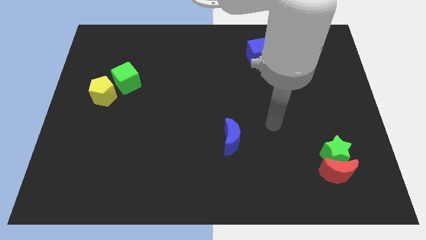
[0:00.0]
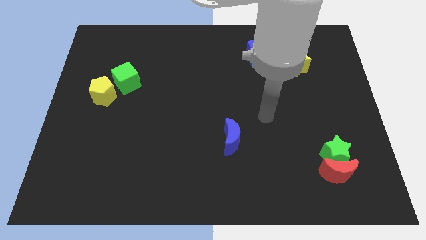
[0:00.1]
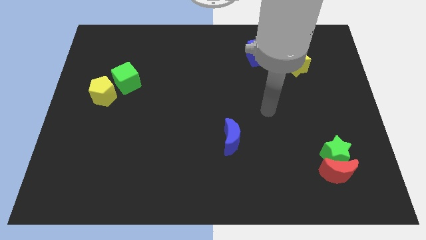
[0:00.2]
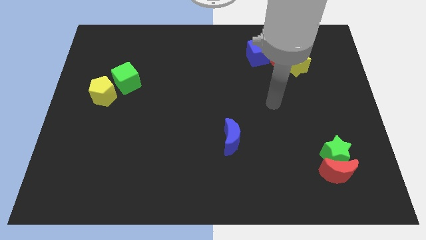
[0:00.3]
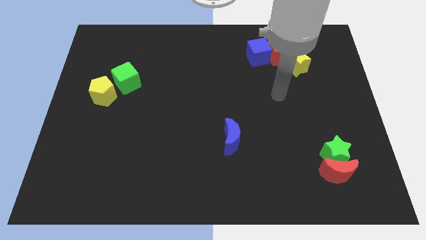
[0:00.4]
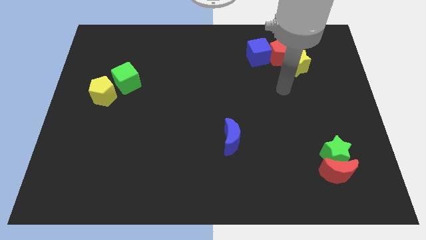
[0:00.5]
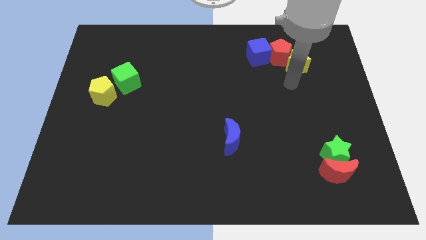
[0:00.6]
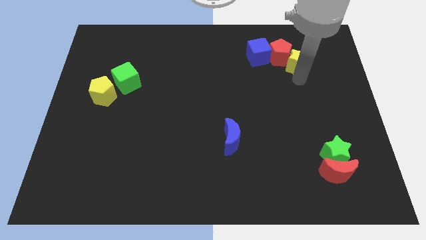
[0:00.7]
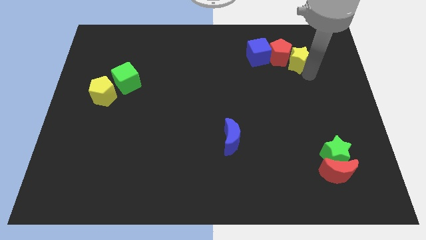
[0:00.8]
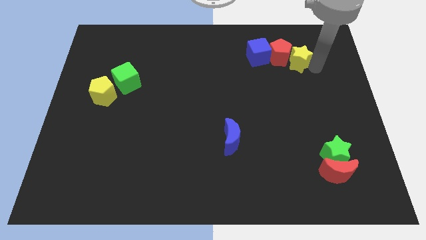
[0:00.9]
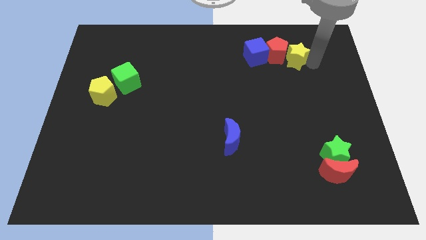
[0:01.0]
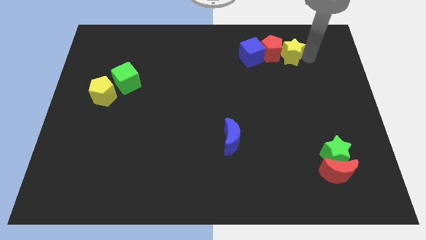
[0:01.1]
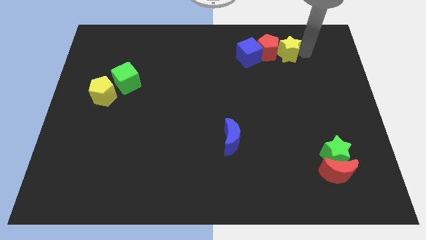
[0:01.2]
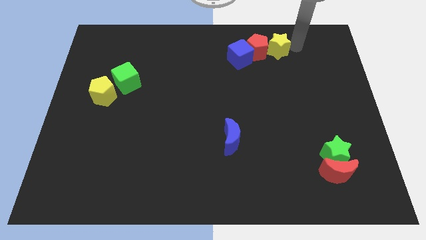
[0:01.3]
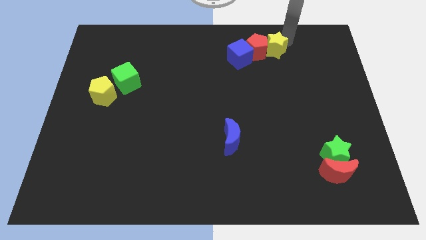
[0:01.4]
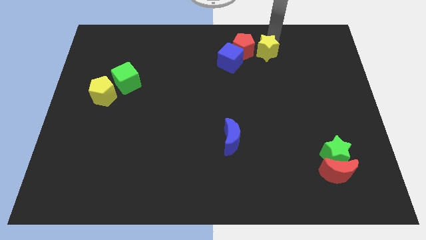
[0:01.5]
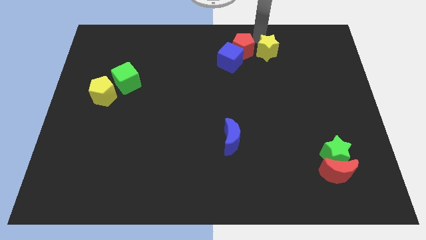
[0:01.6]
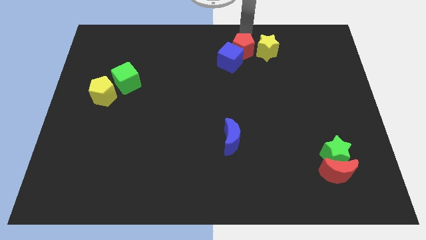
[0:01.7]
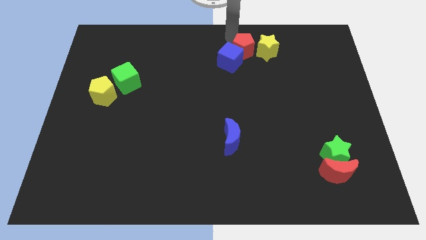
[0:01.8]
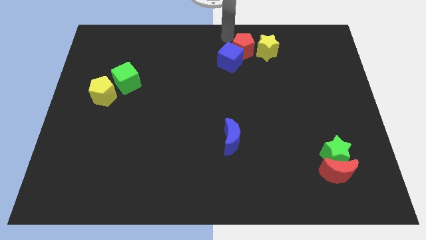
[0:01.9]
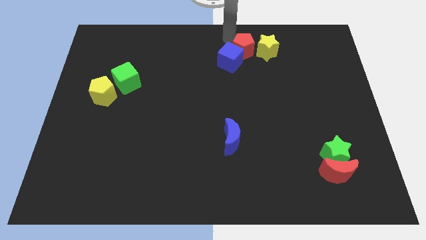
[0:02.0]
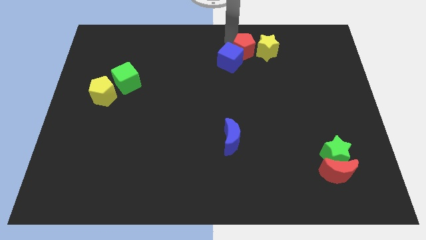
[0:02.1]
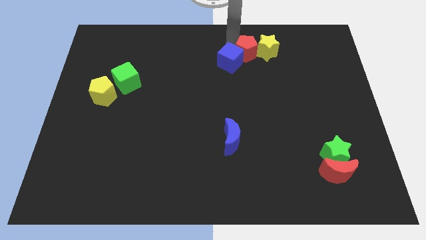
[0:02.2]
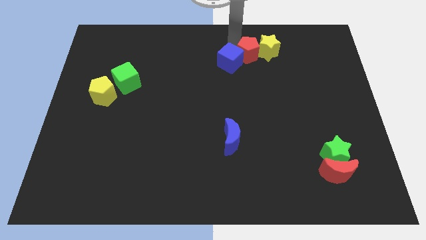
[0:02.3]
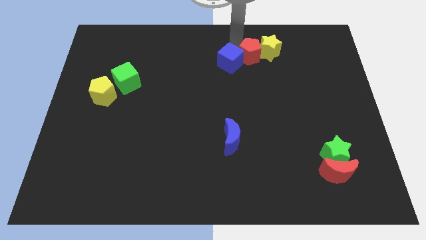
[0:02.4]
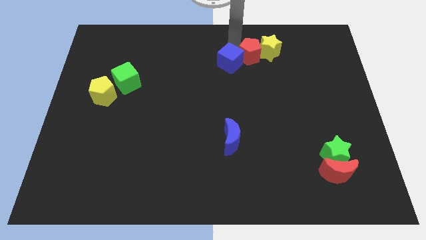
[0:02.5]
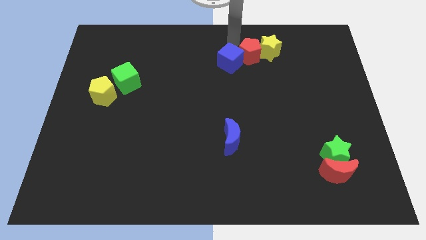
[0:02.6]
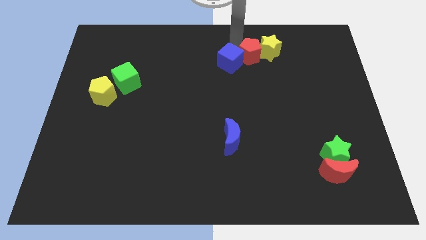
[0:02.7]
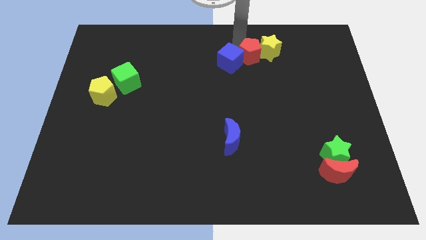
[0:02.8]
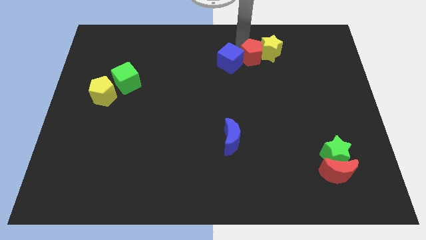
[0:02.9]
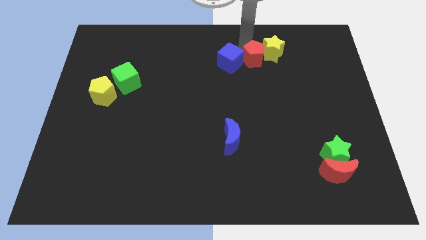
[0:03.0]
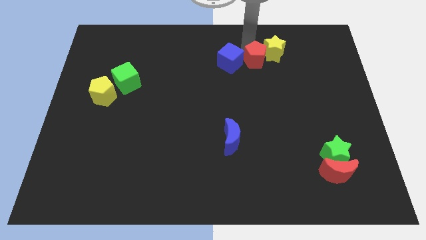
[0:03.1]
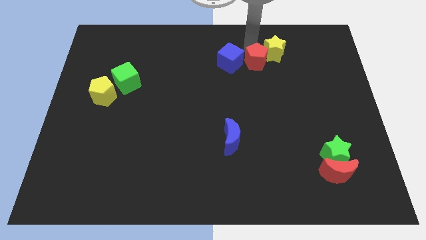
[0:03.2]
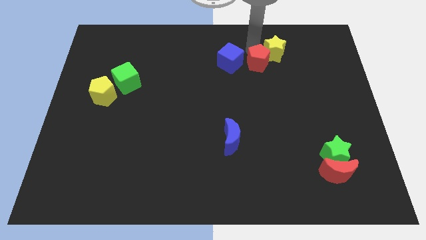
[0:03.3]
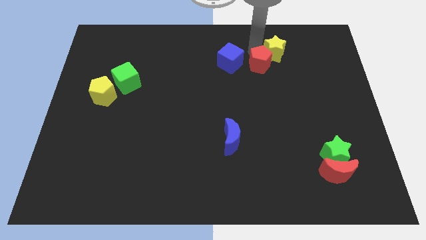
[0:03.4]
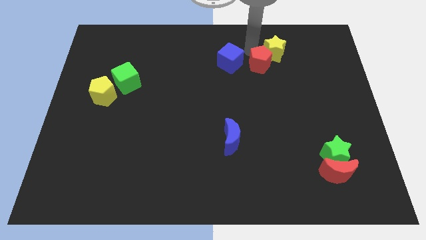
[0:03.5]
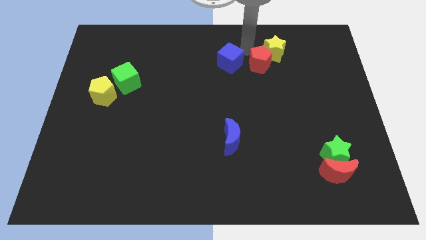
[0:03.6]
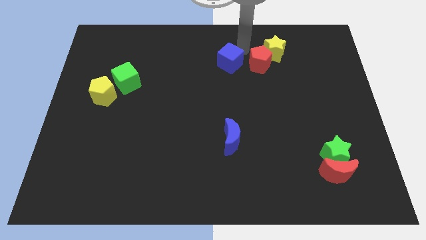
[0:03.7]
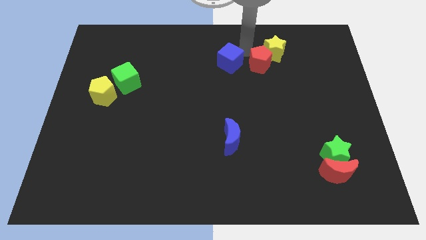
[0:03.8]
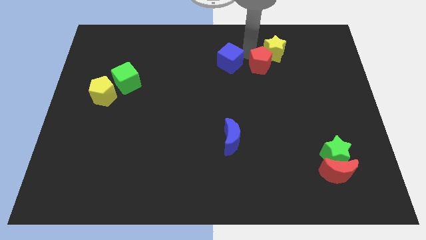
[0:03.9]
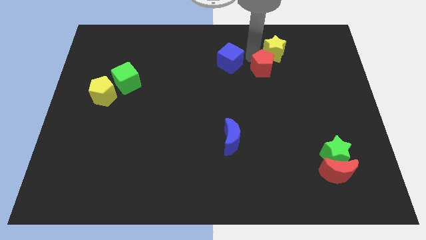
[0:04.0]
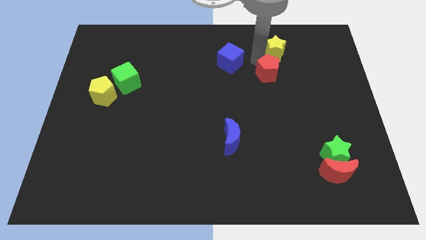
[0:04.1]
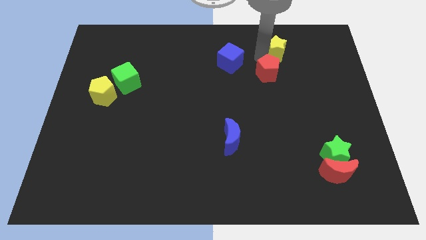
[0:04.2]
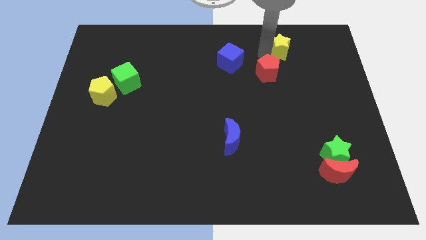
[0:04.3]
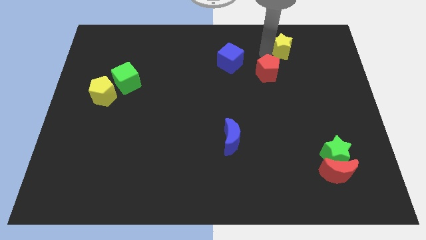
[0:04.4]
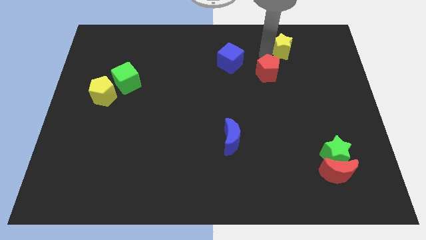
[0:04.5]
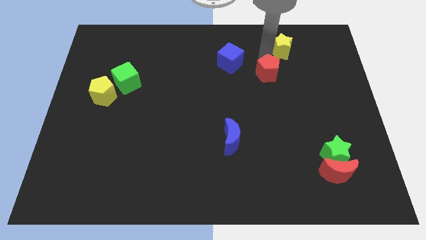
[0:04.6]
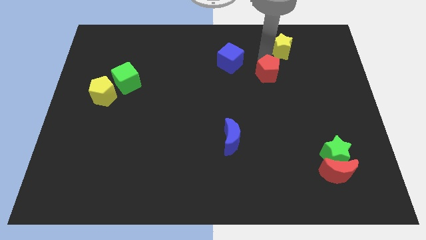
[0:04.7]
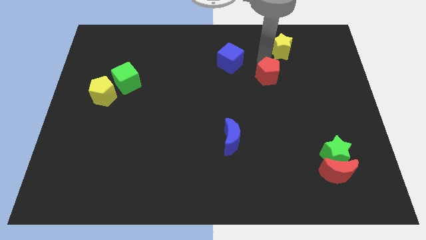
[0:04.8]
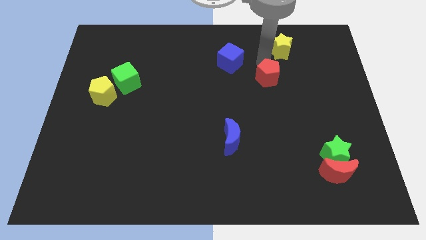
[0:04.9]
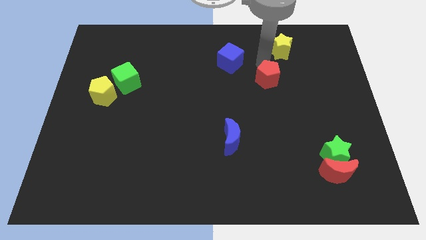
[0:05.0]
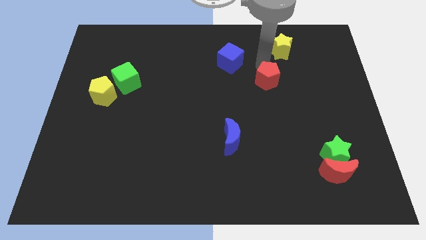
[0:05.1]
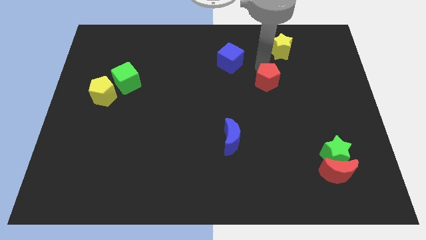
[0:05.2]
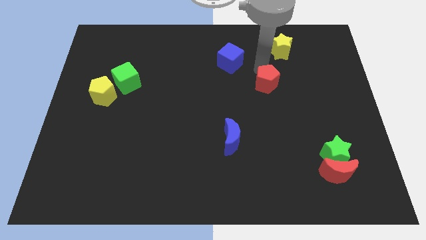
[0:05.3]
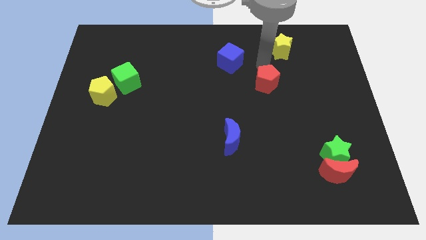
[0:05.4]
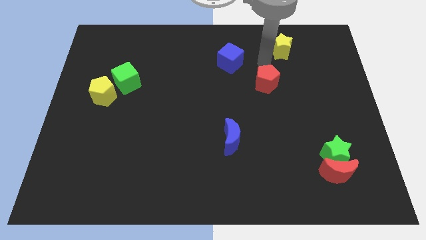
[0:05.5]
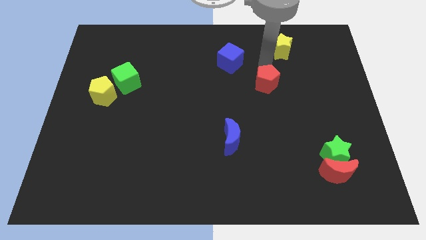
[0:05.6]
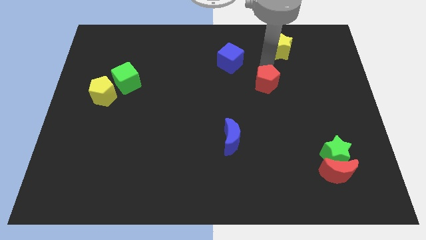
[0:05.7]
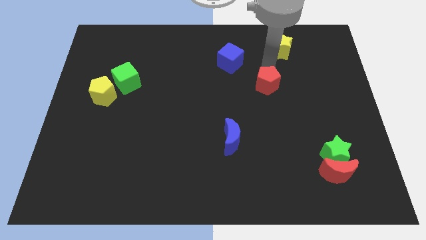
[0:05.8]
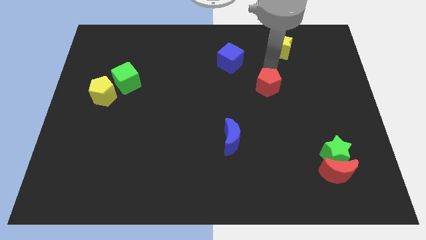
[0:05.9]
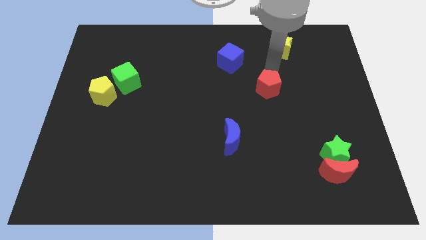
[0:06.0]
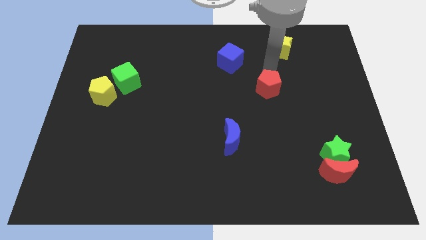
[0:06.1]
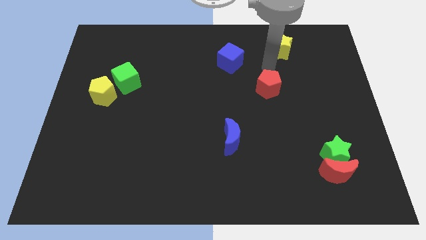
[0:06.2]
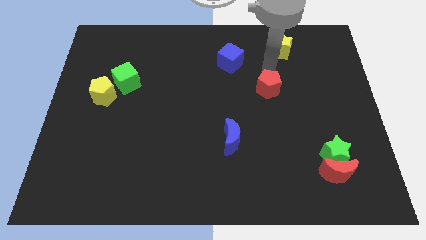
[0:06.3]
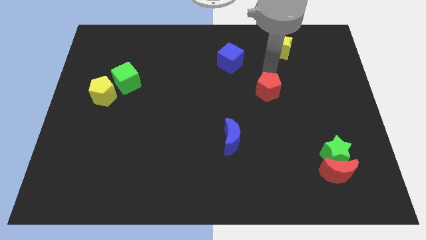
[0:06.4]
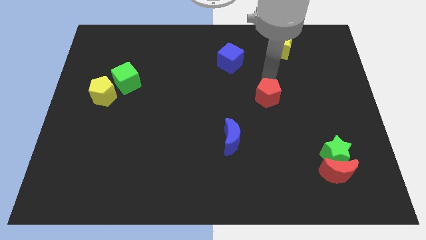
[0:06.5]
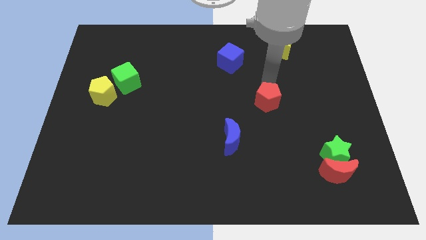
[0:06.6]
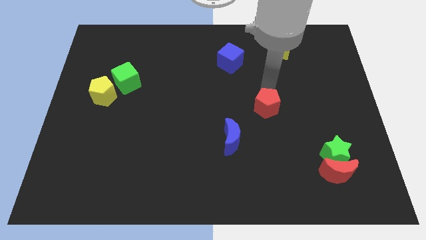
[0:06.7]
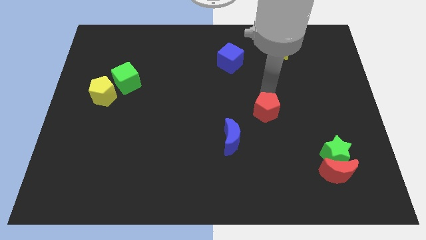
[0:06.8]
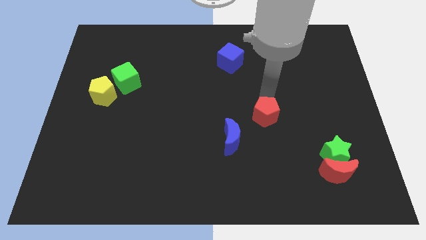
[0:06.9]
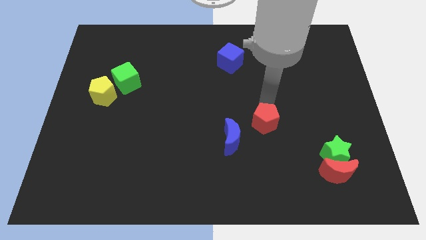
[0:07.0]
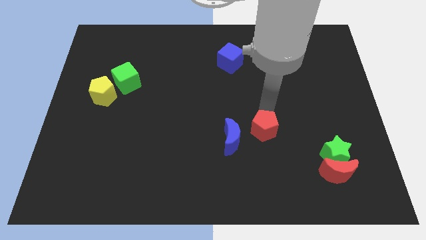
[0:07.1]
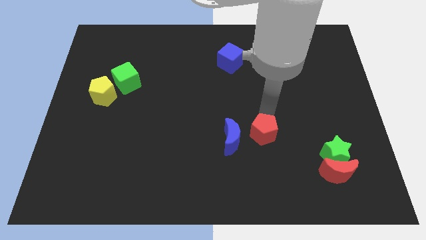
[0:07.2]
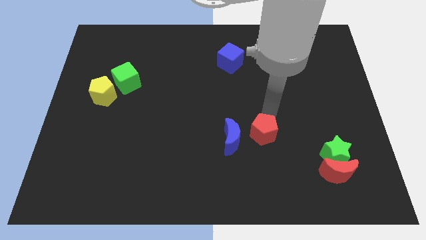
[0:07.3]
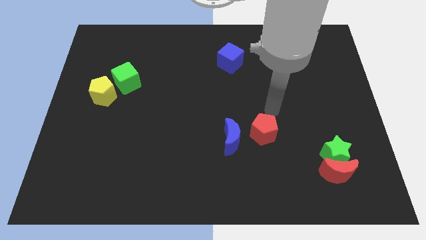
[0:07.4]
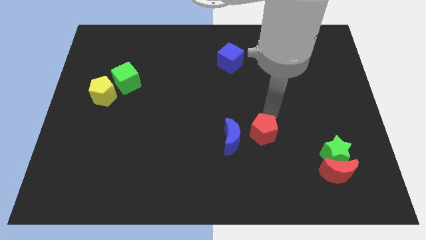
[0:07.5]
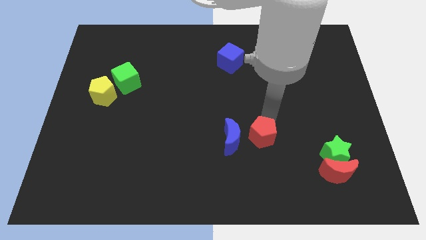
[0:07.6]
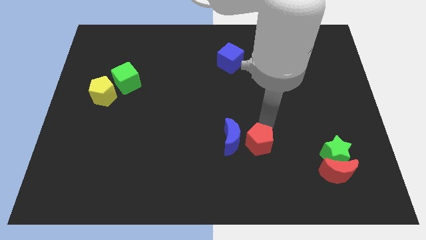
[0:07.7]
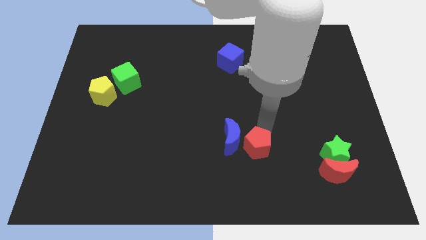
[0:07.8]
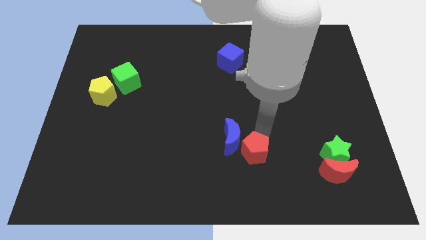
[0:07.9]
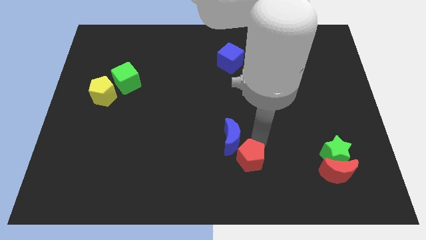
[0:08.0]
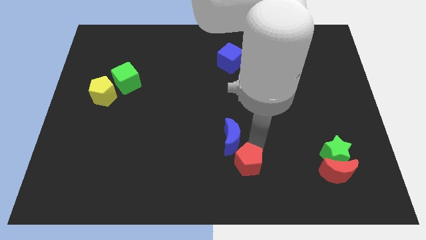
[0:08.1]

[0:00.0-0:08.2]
put the red pentagon to the bottom
